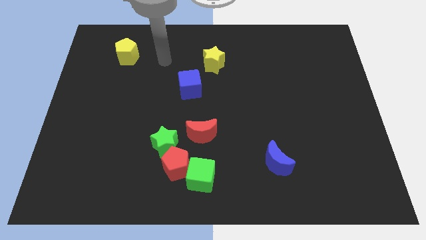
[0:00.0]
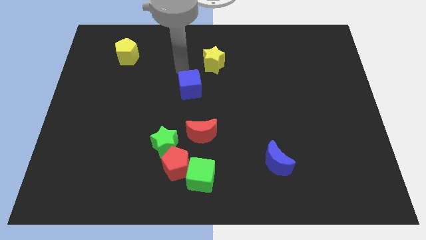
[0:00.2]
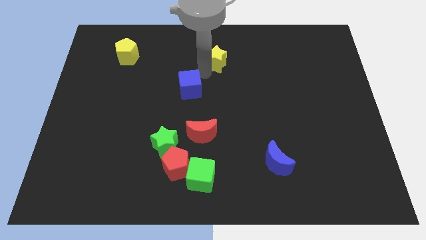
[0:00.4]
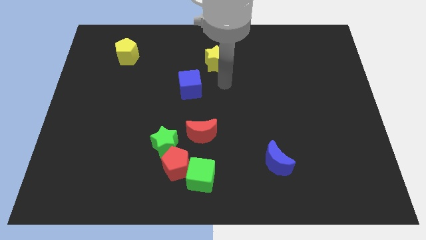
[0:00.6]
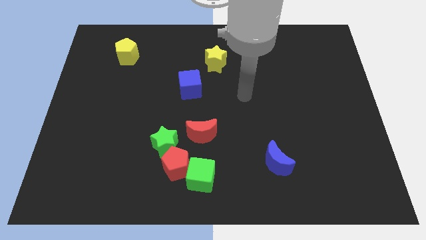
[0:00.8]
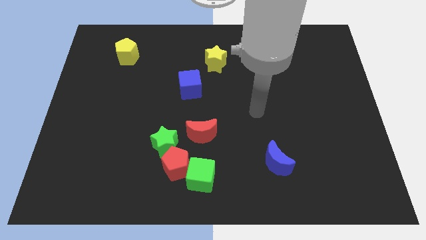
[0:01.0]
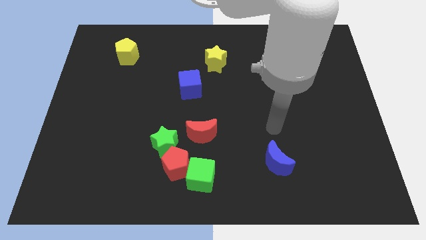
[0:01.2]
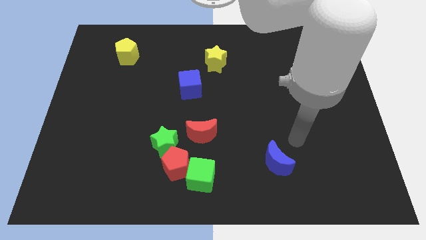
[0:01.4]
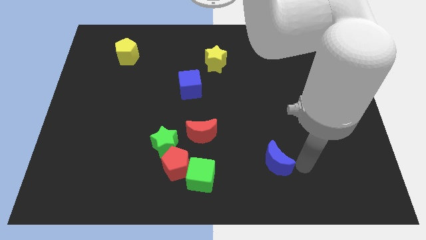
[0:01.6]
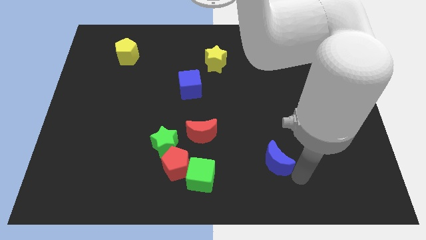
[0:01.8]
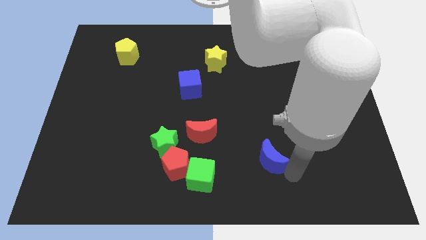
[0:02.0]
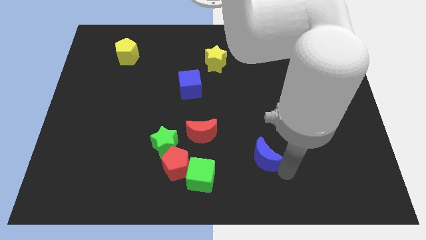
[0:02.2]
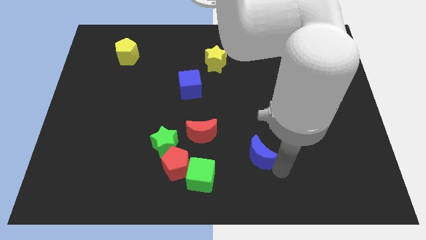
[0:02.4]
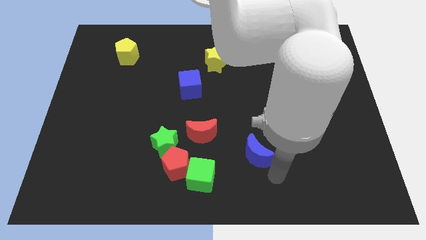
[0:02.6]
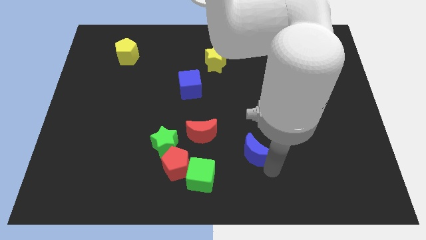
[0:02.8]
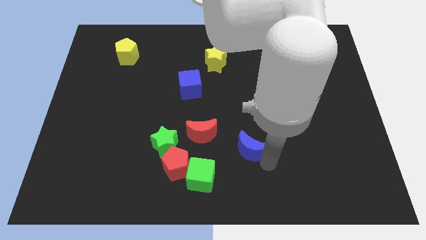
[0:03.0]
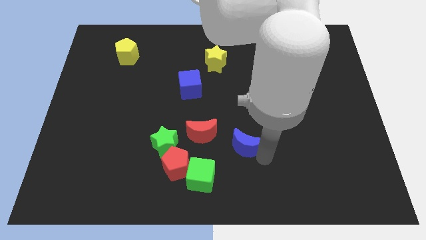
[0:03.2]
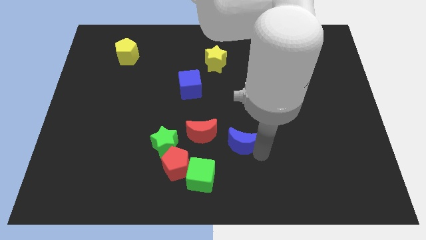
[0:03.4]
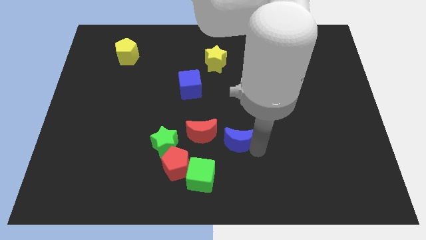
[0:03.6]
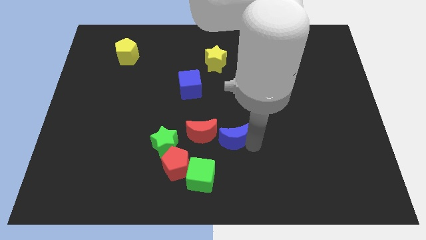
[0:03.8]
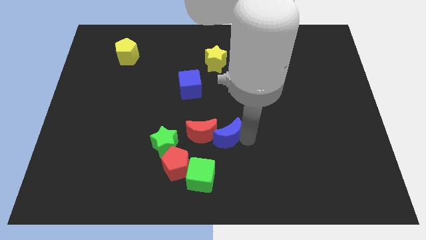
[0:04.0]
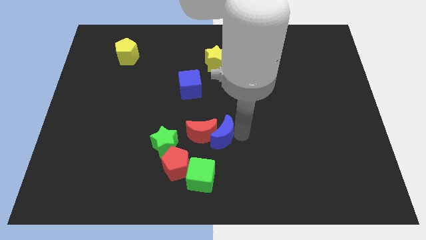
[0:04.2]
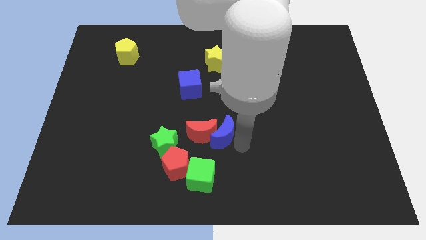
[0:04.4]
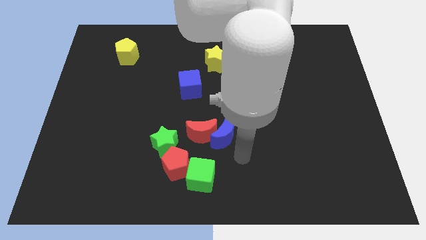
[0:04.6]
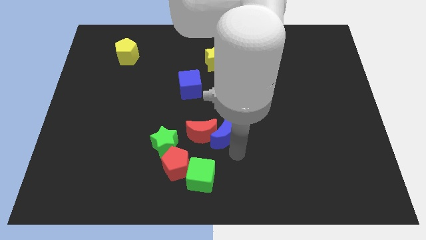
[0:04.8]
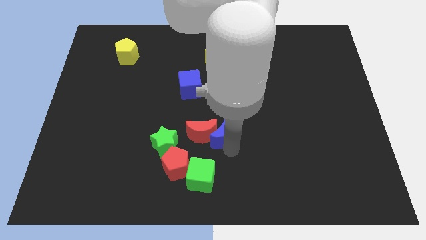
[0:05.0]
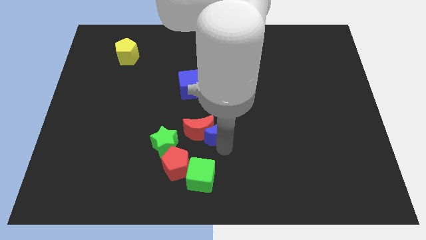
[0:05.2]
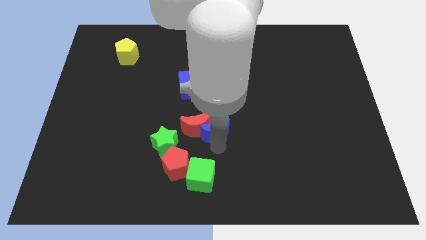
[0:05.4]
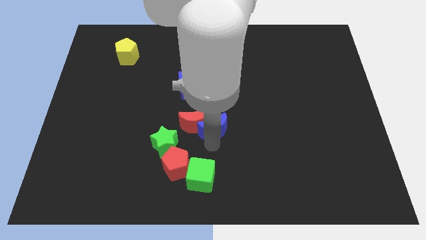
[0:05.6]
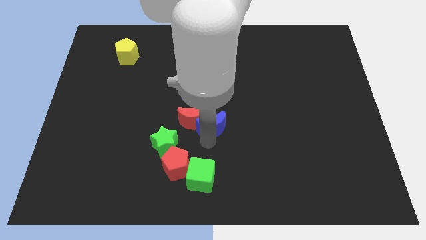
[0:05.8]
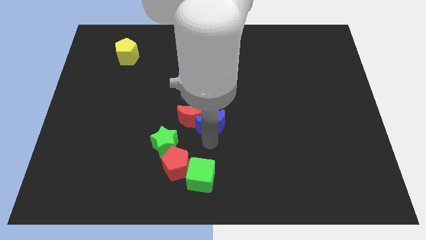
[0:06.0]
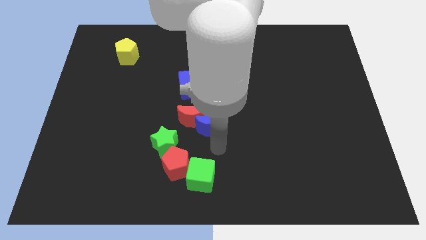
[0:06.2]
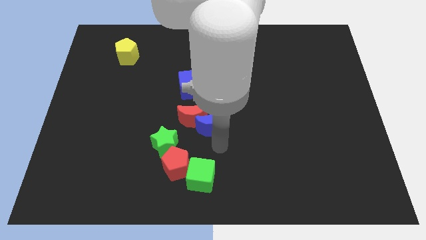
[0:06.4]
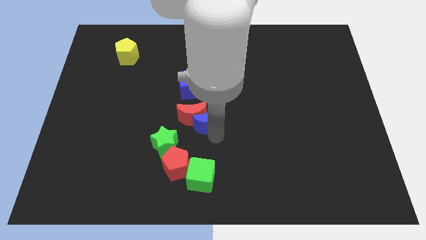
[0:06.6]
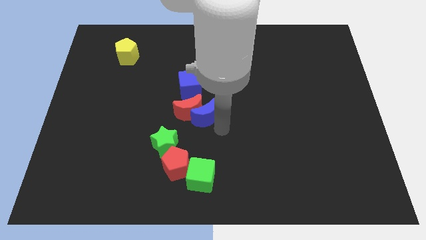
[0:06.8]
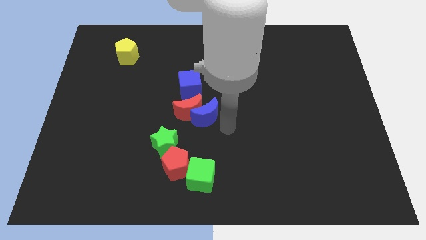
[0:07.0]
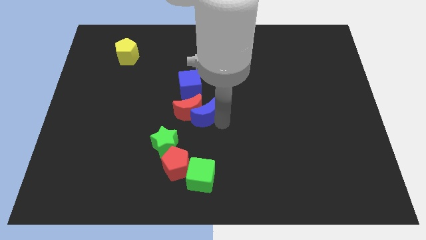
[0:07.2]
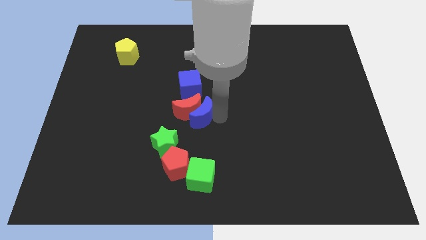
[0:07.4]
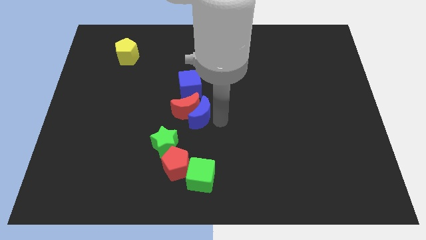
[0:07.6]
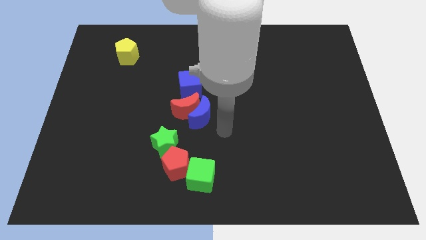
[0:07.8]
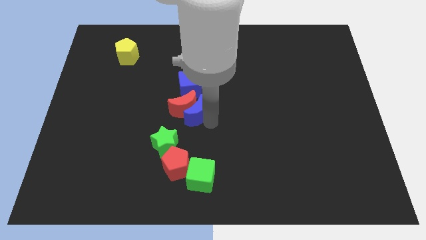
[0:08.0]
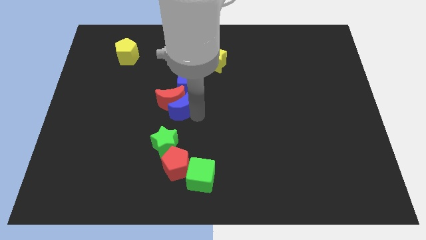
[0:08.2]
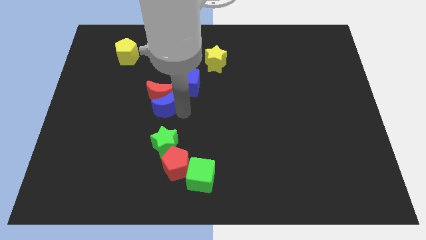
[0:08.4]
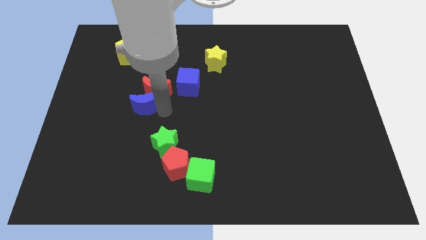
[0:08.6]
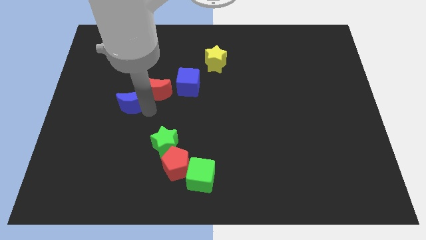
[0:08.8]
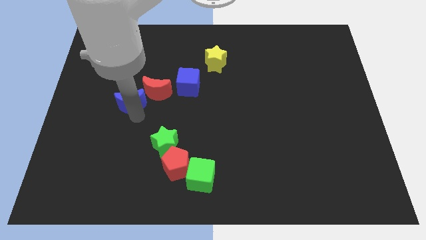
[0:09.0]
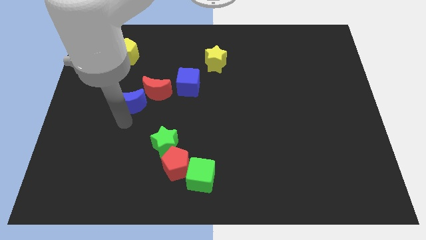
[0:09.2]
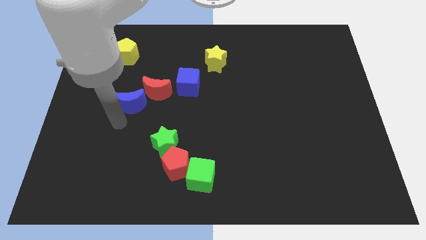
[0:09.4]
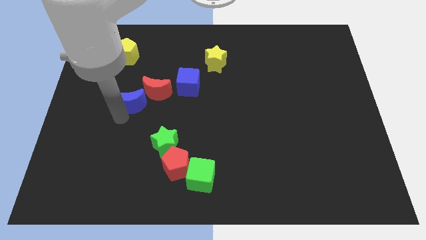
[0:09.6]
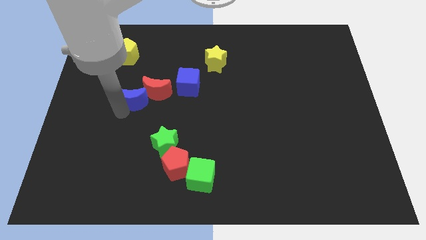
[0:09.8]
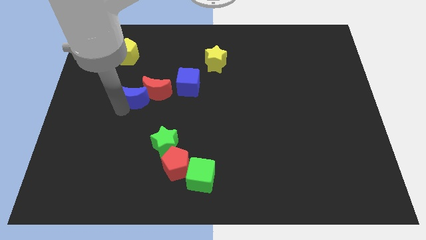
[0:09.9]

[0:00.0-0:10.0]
move the blue moon left of the blue cube

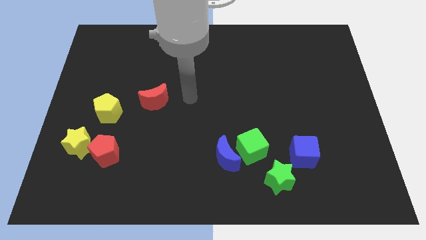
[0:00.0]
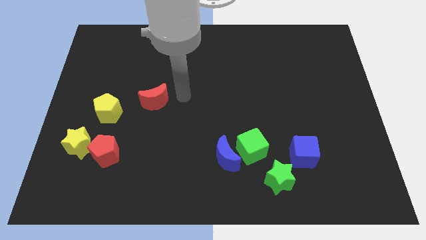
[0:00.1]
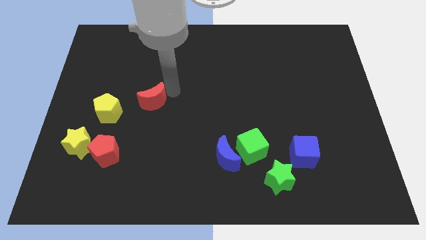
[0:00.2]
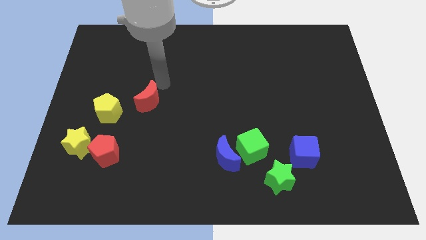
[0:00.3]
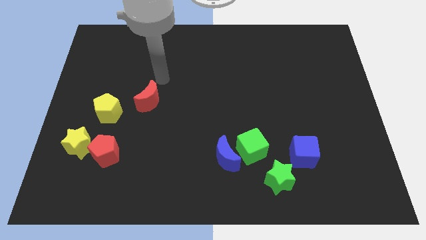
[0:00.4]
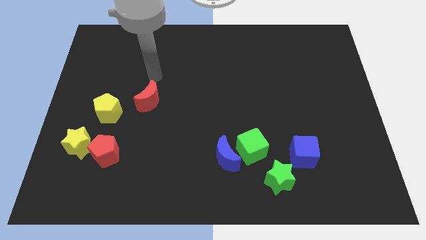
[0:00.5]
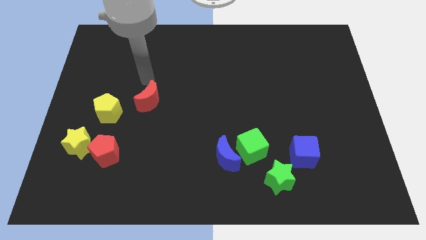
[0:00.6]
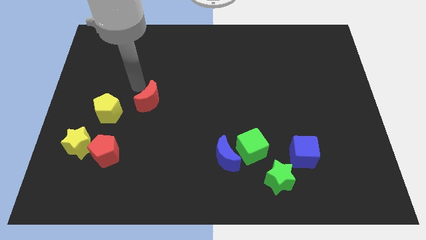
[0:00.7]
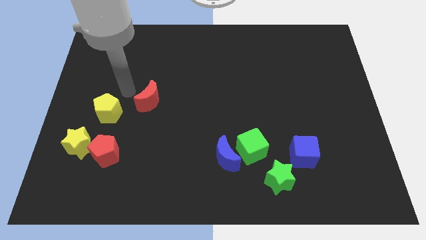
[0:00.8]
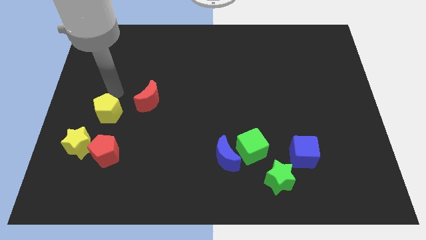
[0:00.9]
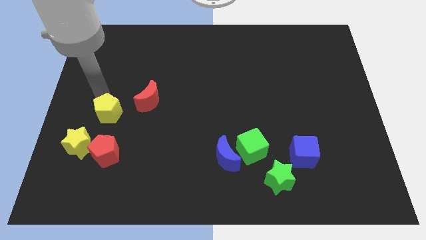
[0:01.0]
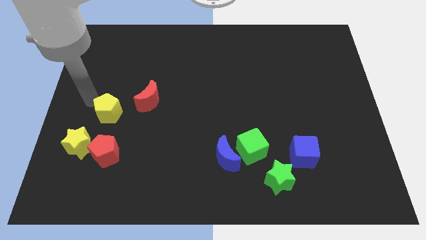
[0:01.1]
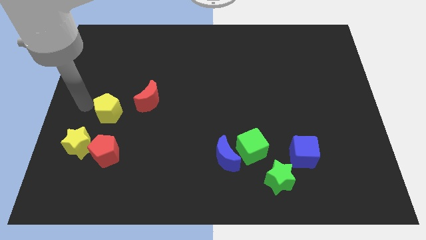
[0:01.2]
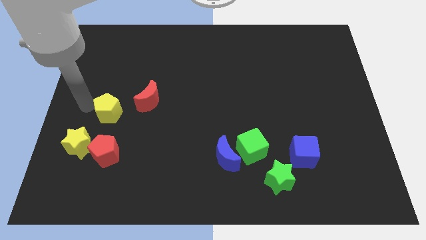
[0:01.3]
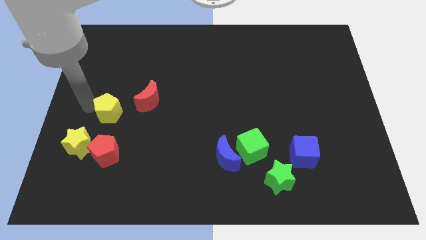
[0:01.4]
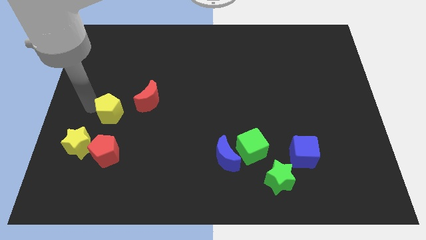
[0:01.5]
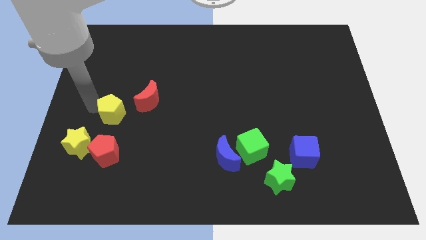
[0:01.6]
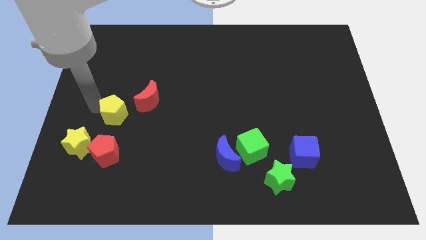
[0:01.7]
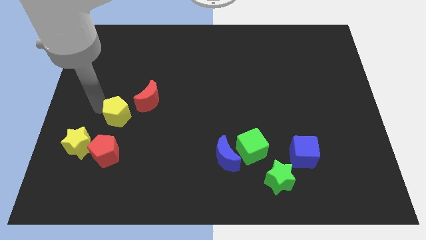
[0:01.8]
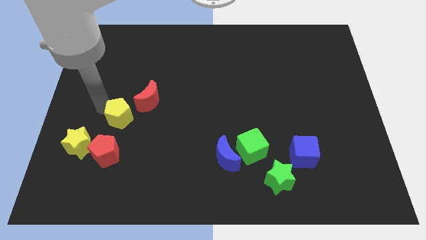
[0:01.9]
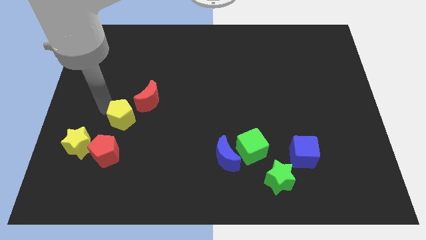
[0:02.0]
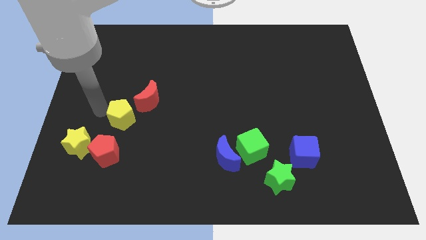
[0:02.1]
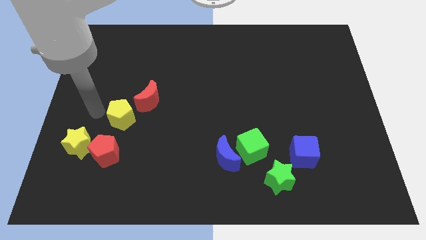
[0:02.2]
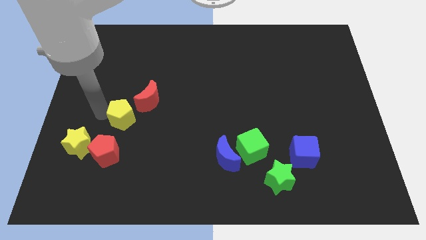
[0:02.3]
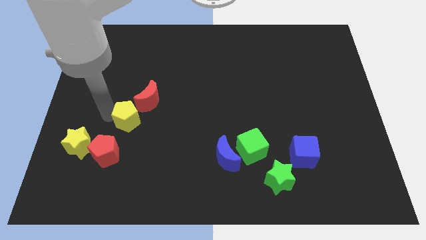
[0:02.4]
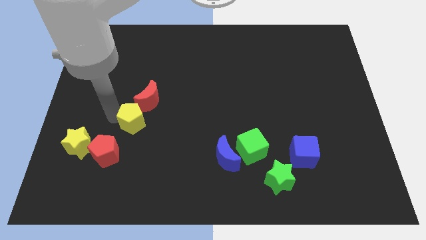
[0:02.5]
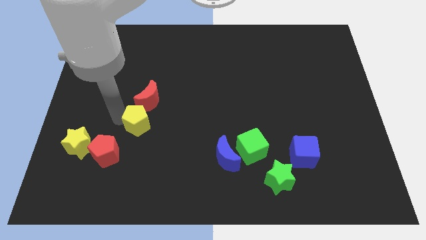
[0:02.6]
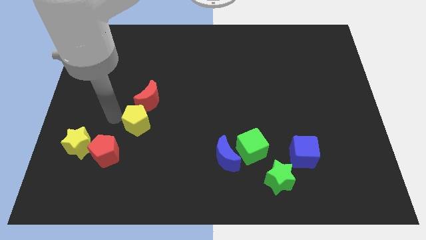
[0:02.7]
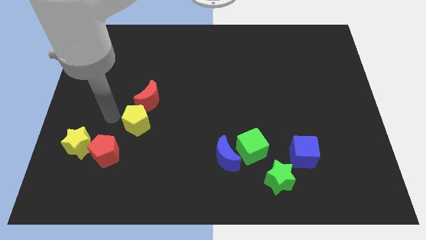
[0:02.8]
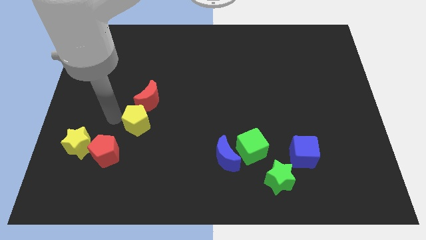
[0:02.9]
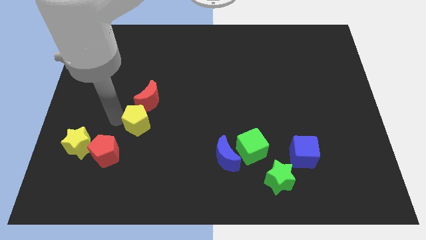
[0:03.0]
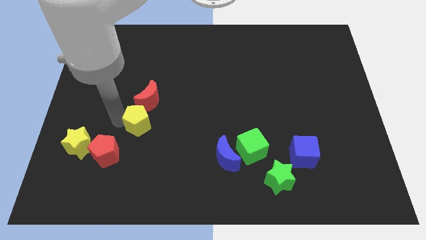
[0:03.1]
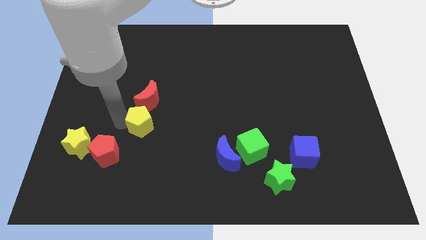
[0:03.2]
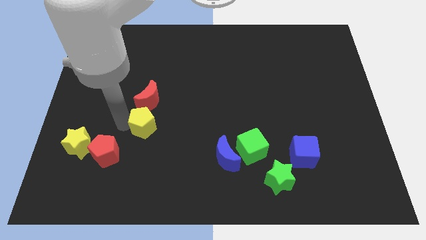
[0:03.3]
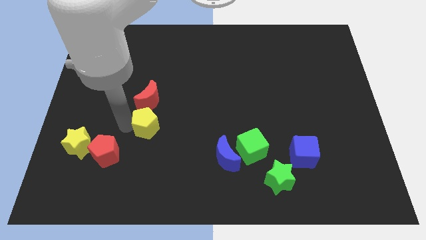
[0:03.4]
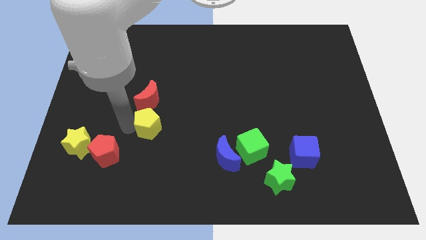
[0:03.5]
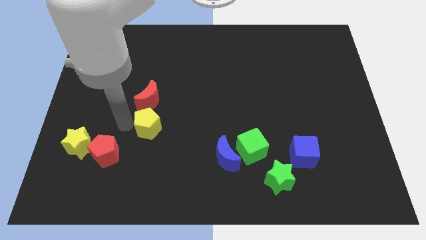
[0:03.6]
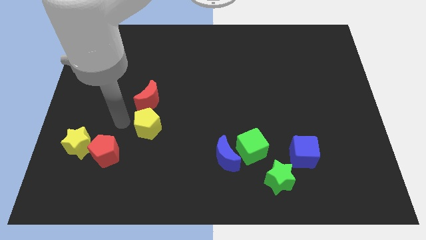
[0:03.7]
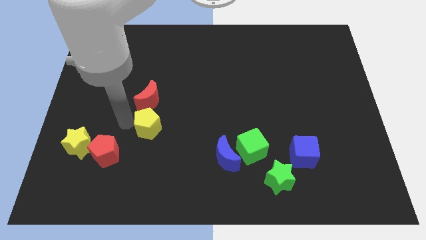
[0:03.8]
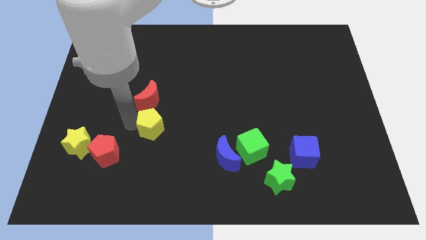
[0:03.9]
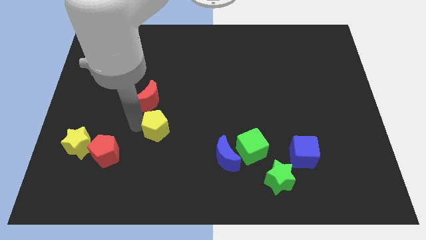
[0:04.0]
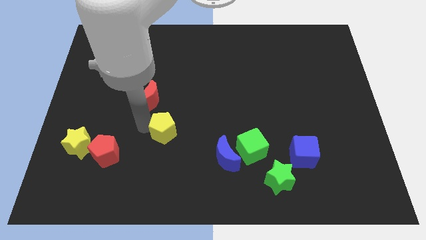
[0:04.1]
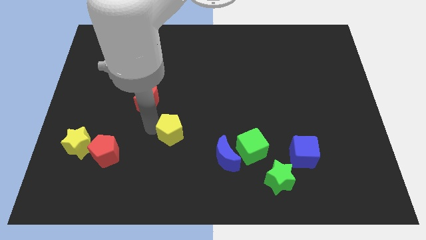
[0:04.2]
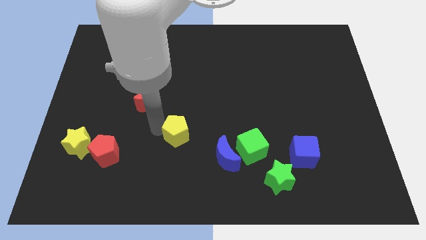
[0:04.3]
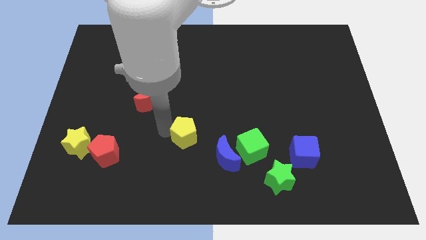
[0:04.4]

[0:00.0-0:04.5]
move the yellow pentagon left of the green cube
